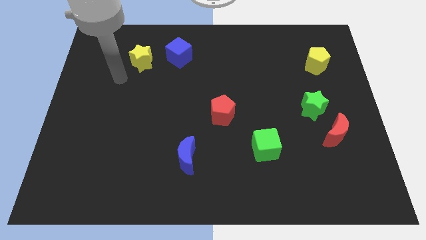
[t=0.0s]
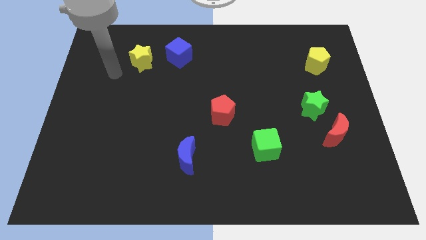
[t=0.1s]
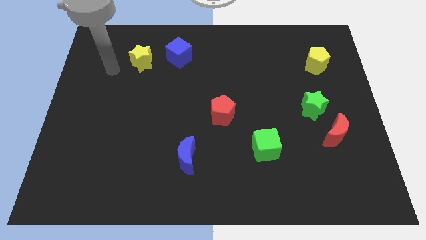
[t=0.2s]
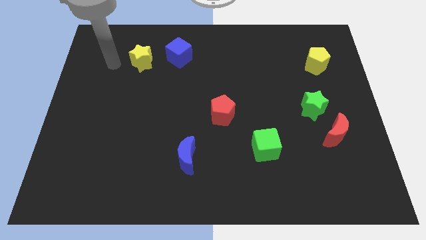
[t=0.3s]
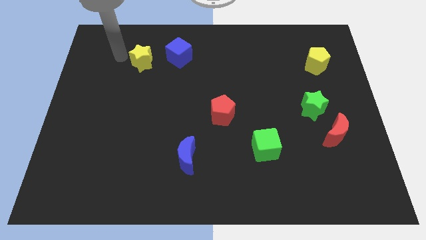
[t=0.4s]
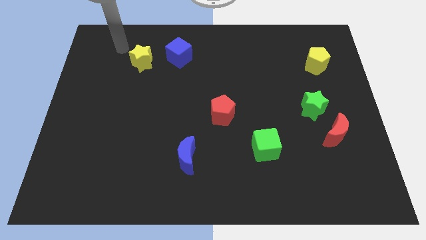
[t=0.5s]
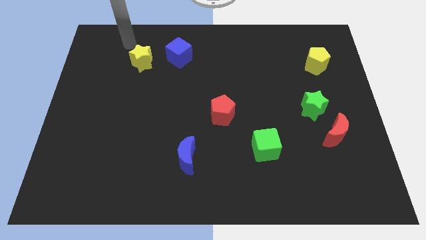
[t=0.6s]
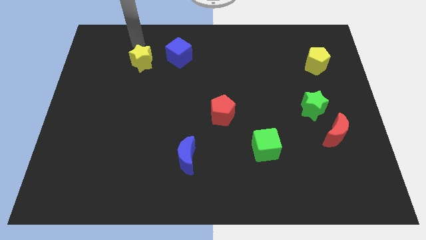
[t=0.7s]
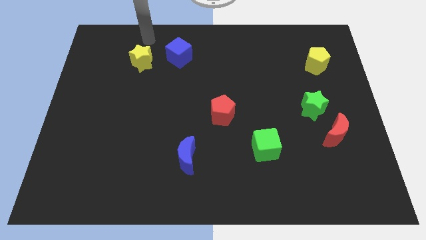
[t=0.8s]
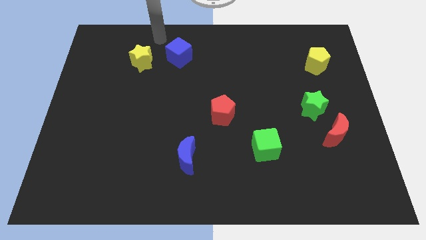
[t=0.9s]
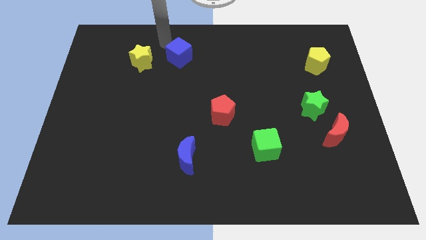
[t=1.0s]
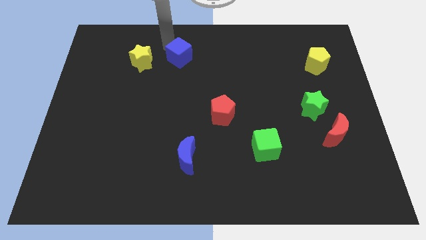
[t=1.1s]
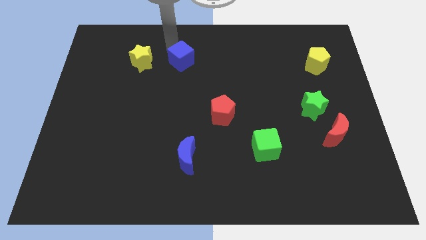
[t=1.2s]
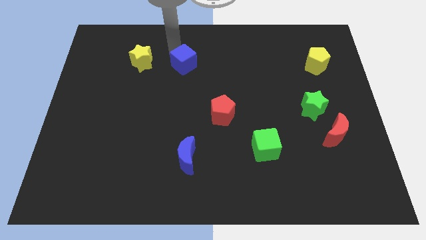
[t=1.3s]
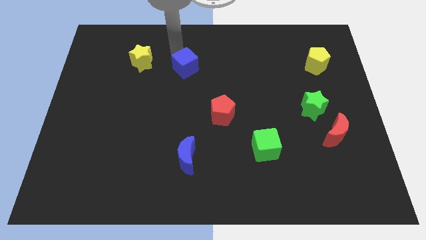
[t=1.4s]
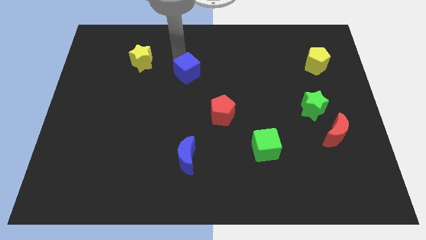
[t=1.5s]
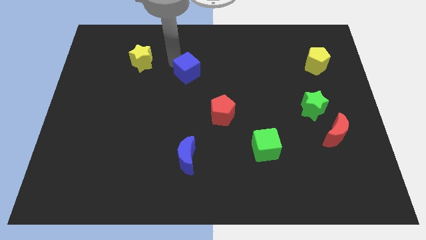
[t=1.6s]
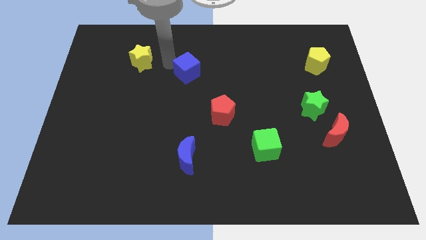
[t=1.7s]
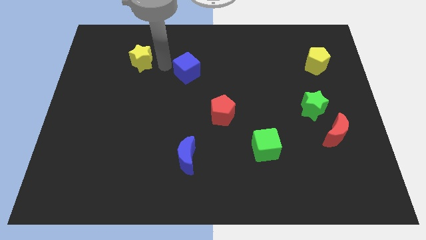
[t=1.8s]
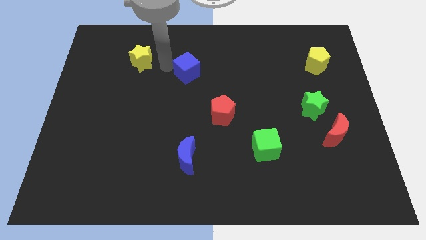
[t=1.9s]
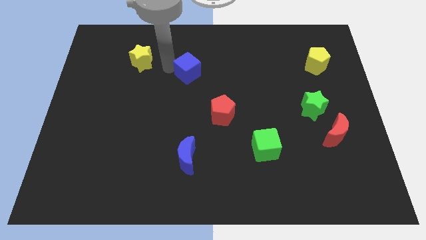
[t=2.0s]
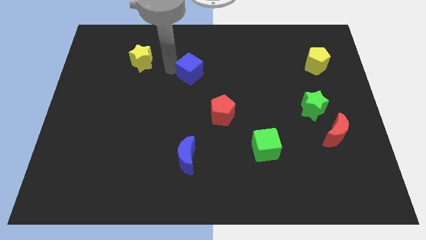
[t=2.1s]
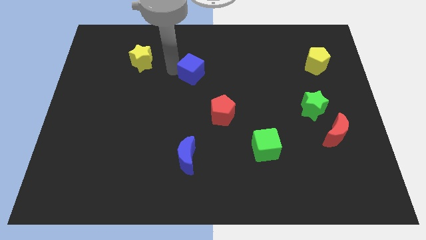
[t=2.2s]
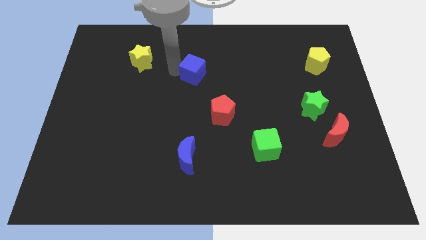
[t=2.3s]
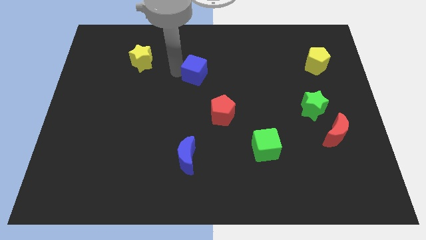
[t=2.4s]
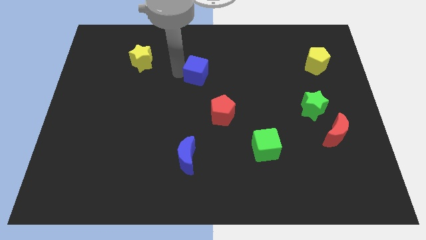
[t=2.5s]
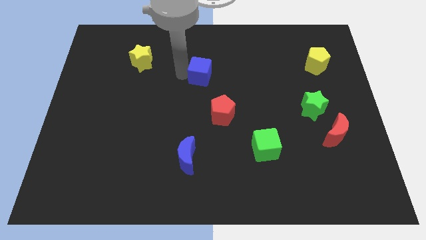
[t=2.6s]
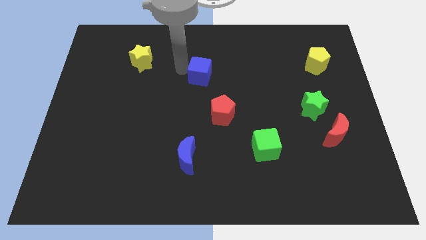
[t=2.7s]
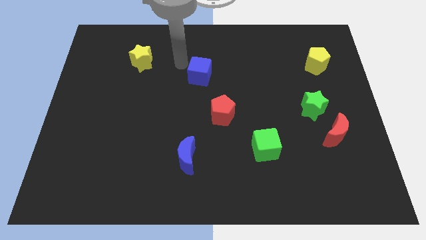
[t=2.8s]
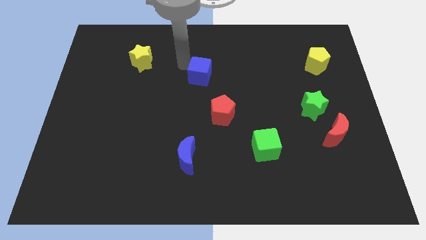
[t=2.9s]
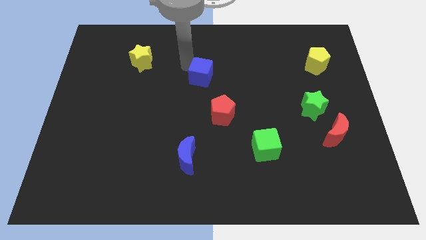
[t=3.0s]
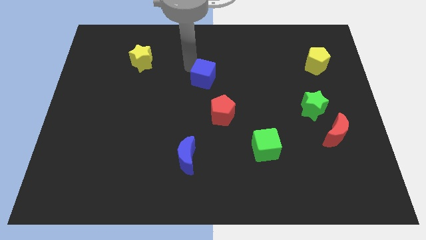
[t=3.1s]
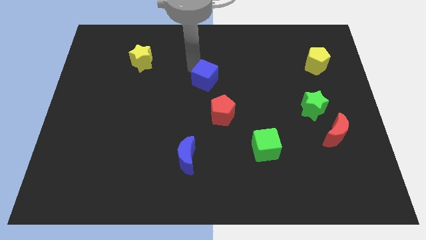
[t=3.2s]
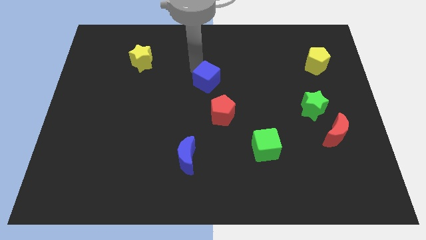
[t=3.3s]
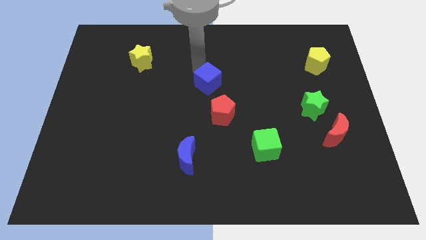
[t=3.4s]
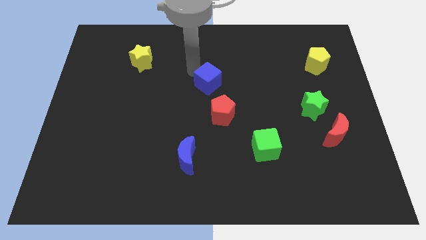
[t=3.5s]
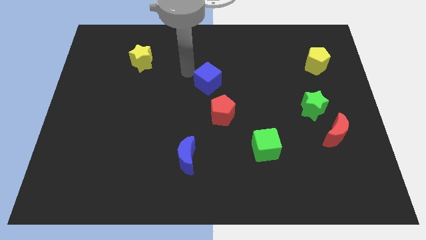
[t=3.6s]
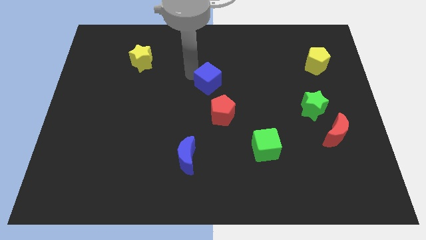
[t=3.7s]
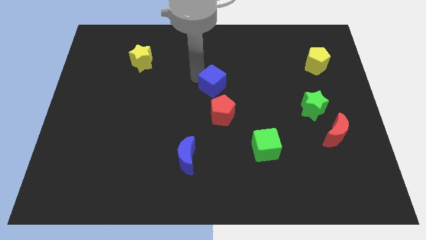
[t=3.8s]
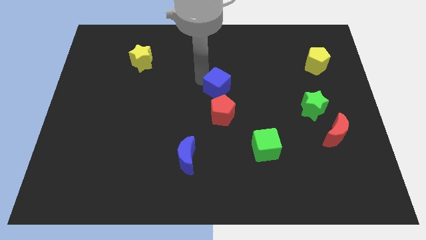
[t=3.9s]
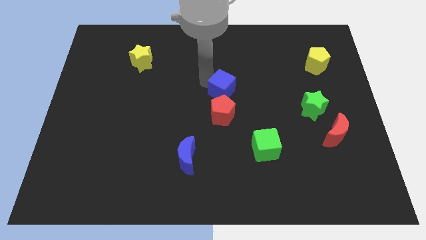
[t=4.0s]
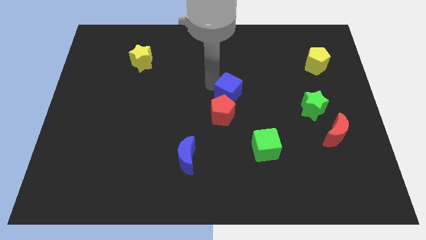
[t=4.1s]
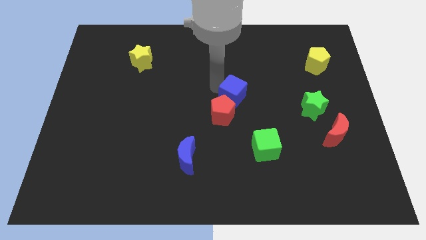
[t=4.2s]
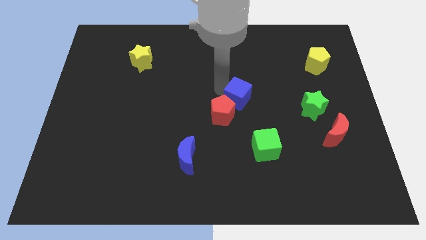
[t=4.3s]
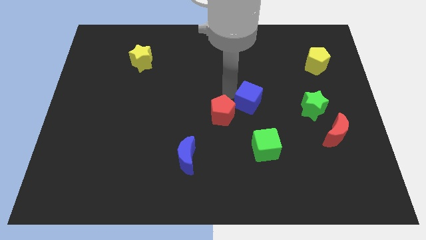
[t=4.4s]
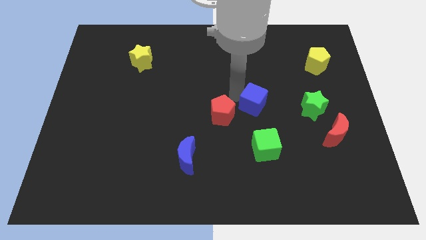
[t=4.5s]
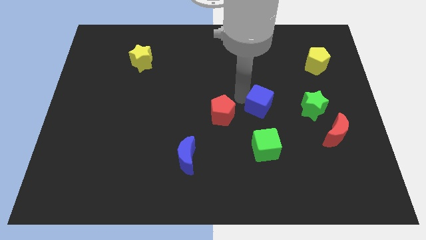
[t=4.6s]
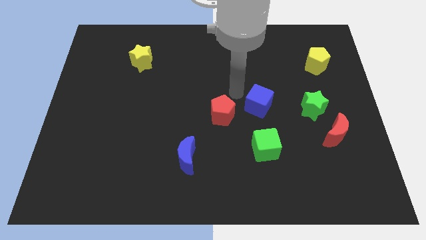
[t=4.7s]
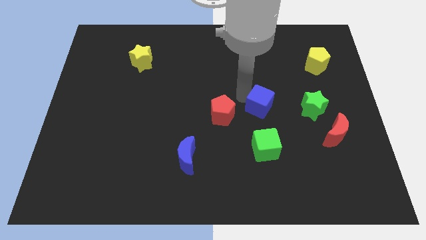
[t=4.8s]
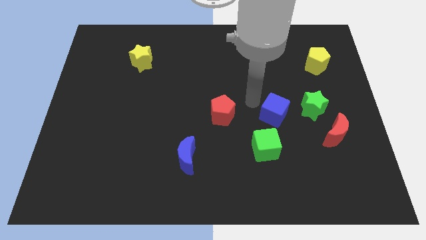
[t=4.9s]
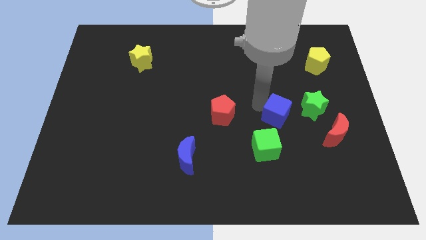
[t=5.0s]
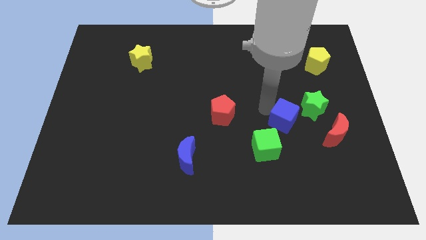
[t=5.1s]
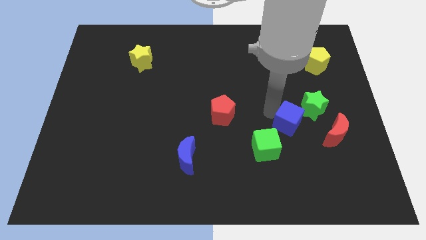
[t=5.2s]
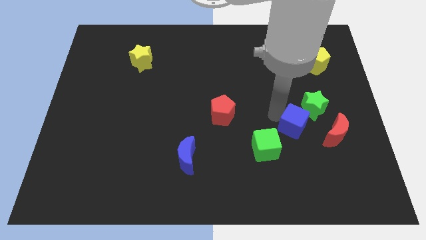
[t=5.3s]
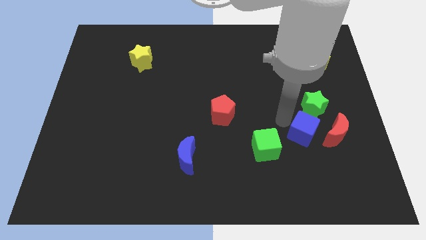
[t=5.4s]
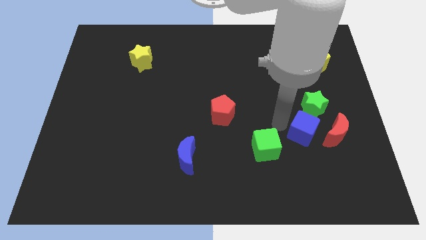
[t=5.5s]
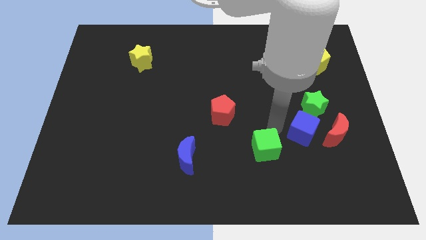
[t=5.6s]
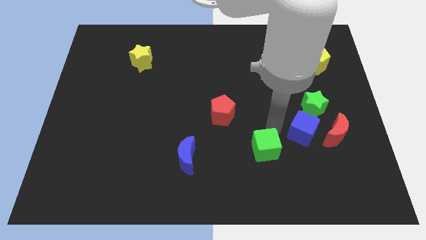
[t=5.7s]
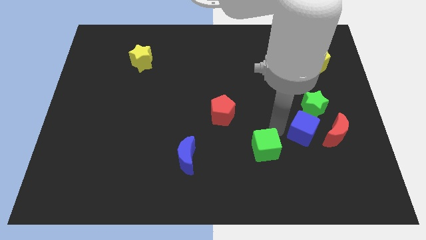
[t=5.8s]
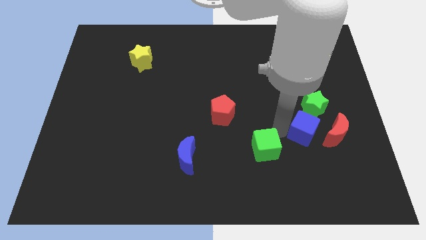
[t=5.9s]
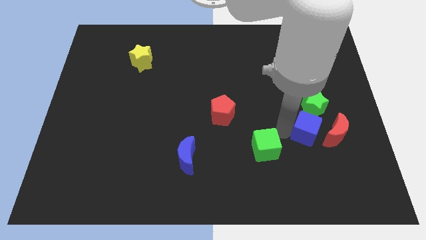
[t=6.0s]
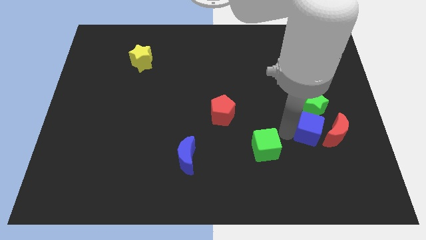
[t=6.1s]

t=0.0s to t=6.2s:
push the blue cube close to the red moon

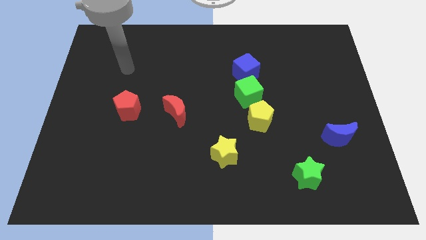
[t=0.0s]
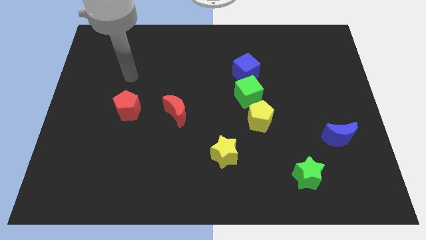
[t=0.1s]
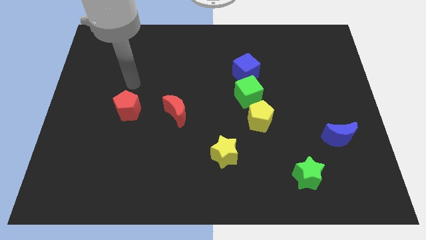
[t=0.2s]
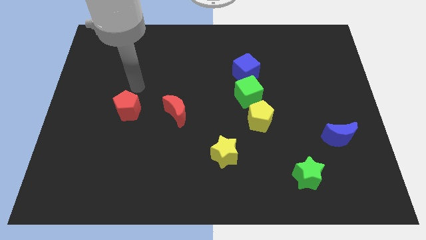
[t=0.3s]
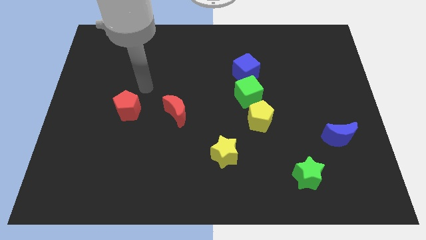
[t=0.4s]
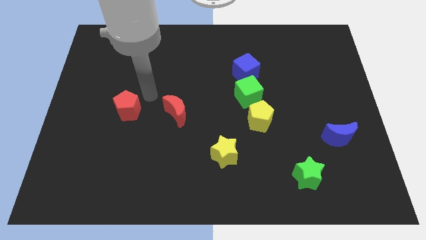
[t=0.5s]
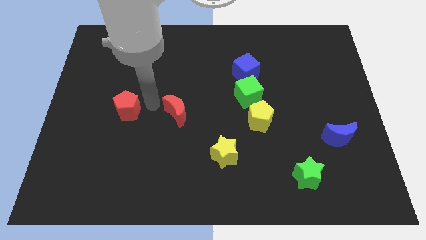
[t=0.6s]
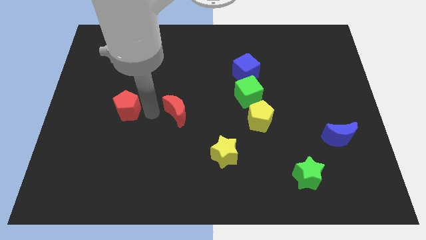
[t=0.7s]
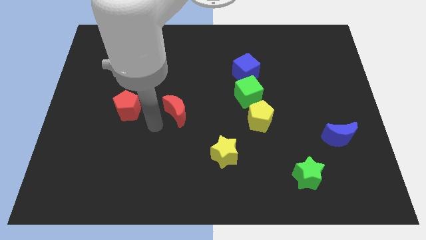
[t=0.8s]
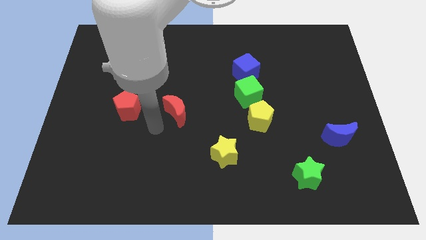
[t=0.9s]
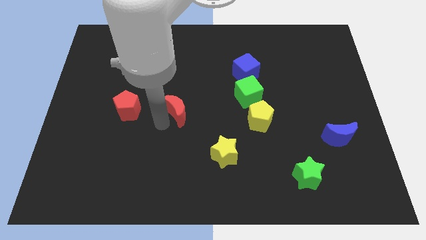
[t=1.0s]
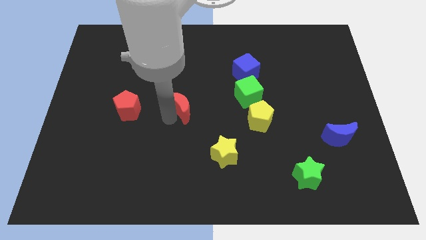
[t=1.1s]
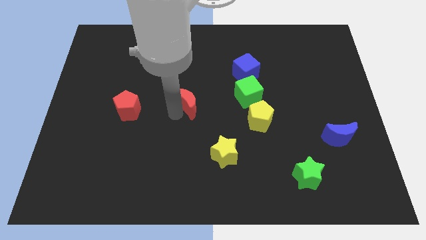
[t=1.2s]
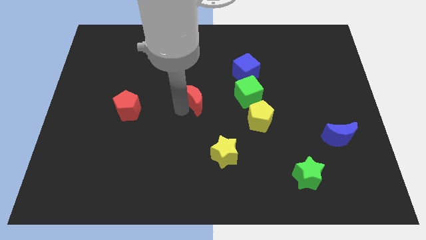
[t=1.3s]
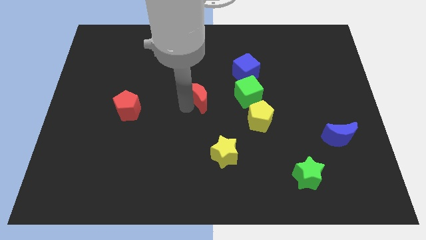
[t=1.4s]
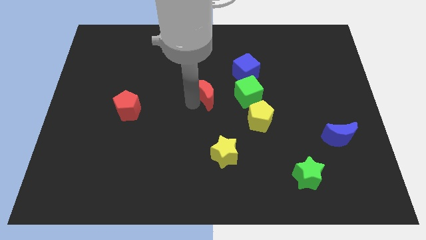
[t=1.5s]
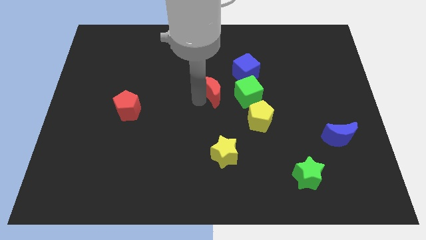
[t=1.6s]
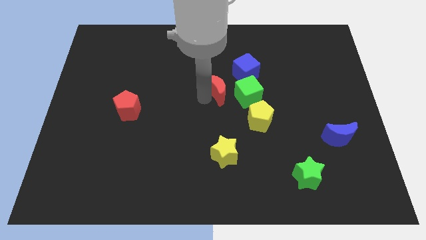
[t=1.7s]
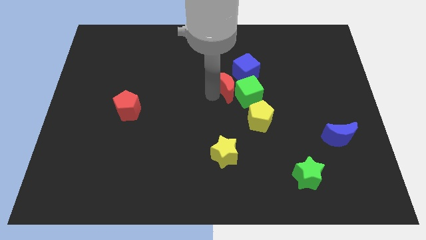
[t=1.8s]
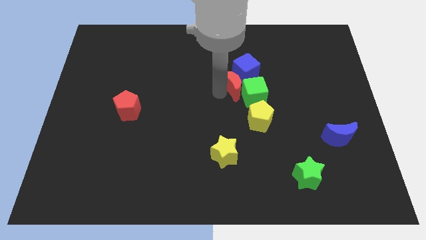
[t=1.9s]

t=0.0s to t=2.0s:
push the red moon towards the blue cube
